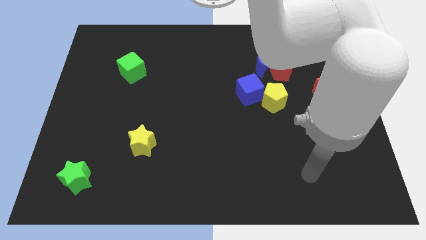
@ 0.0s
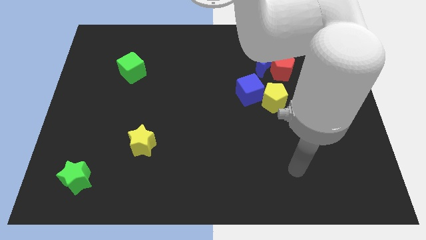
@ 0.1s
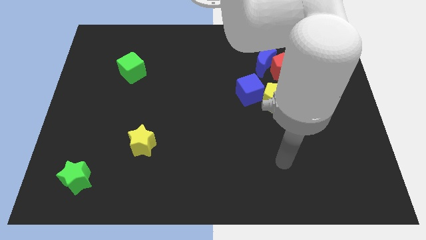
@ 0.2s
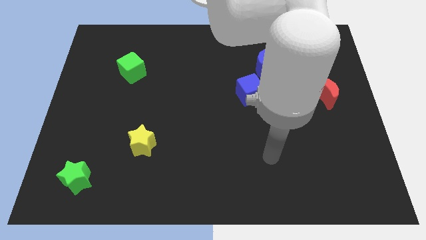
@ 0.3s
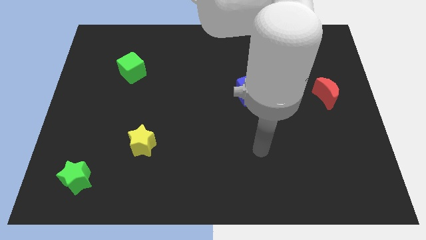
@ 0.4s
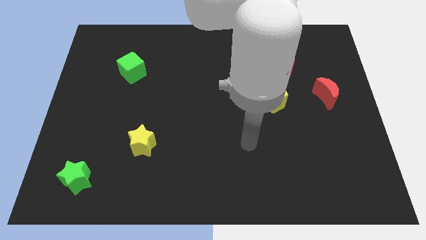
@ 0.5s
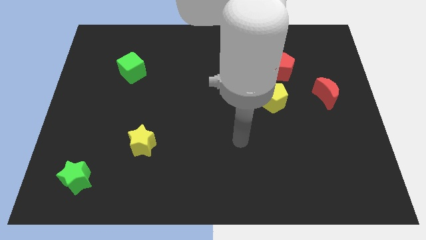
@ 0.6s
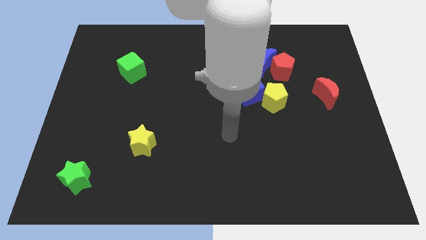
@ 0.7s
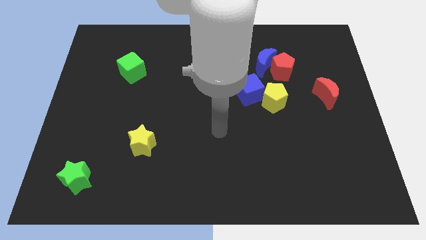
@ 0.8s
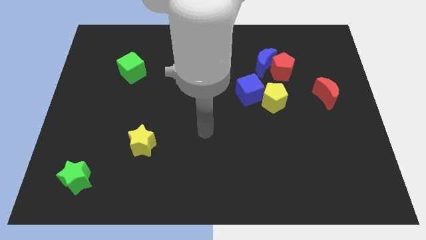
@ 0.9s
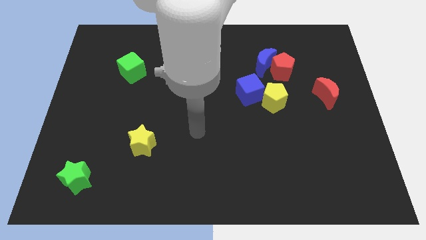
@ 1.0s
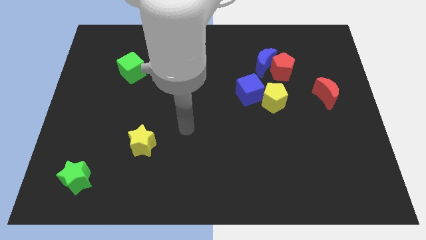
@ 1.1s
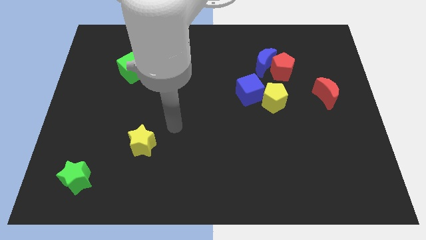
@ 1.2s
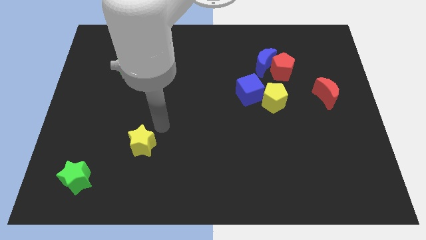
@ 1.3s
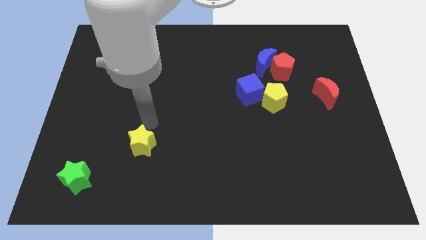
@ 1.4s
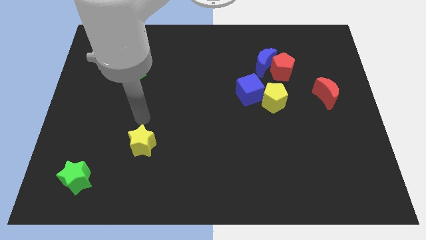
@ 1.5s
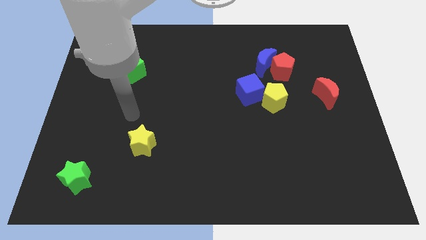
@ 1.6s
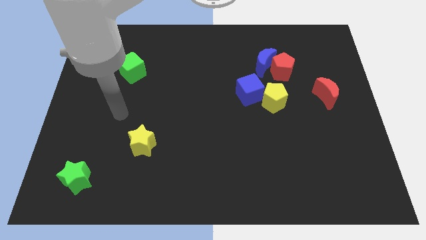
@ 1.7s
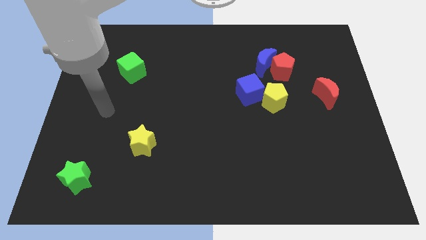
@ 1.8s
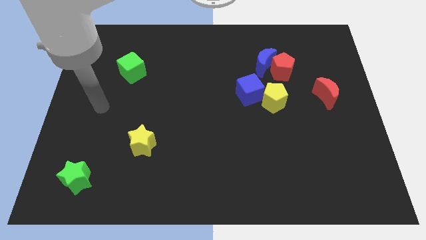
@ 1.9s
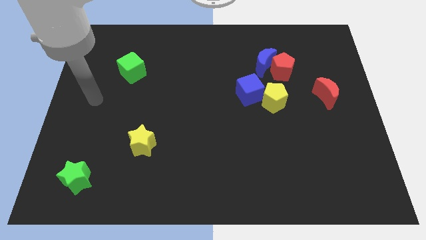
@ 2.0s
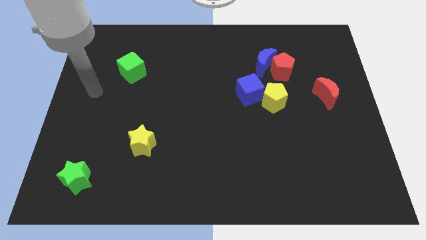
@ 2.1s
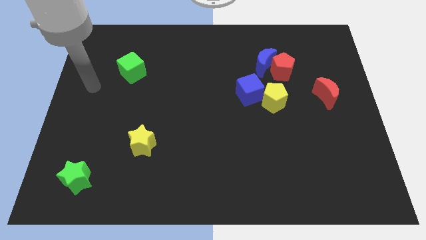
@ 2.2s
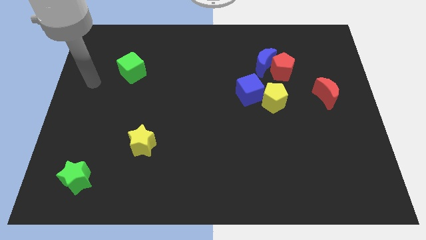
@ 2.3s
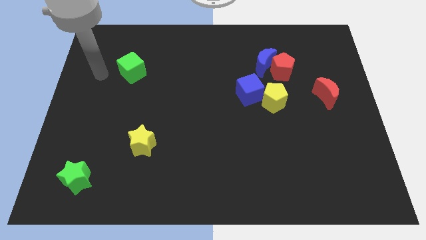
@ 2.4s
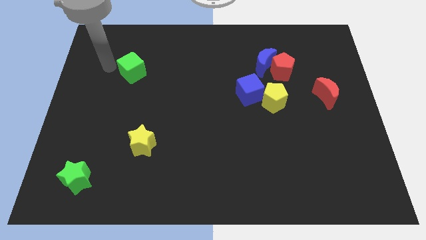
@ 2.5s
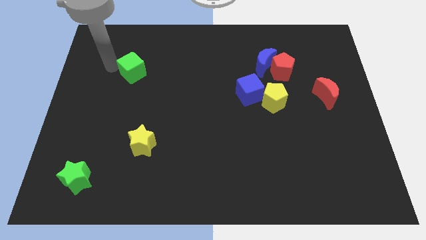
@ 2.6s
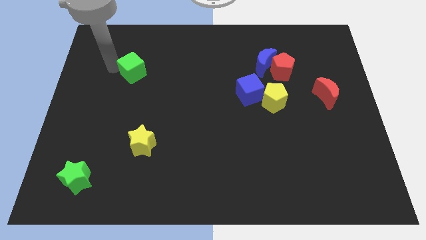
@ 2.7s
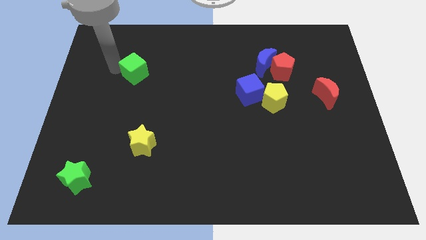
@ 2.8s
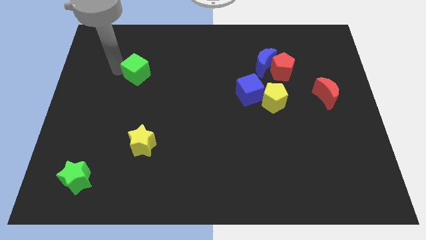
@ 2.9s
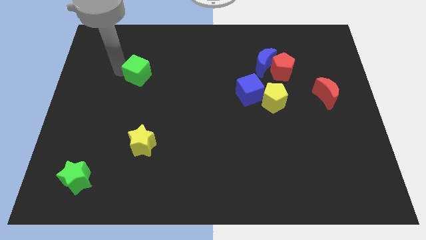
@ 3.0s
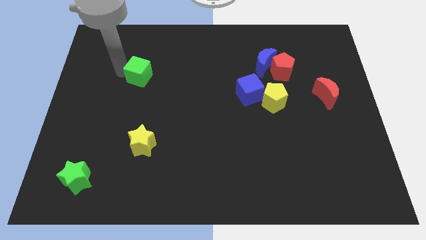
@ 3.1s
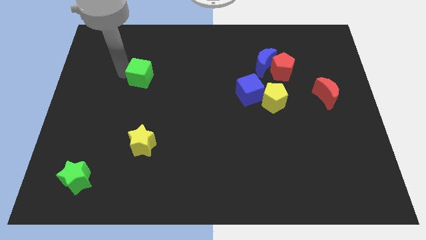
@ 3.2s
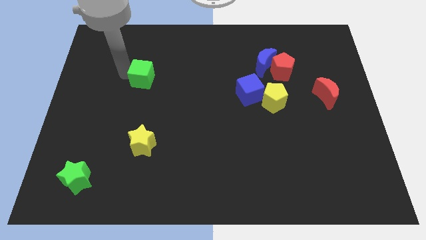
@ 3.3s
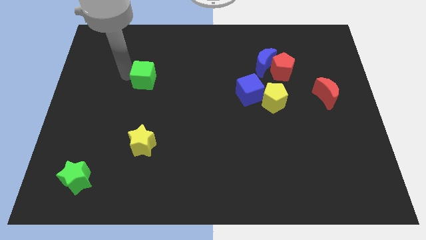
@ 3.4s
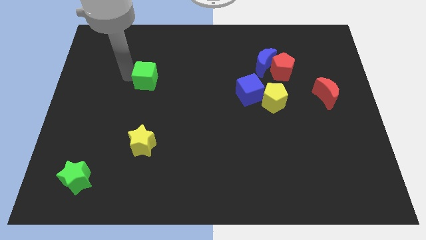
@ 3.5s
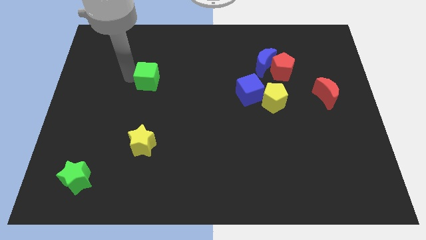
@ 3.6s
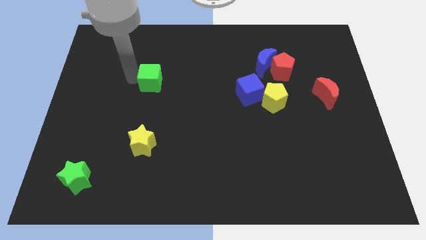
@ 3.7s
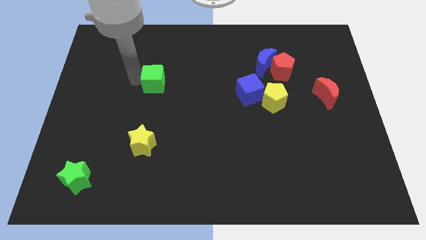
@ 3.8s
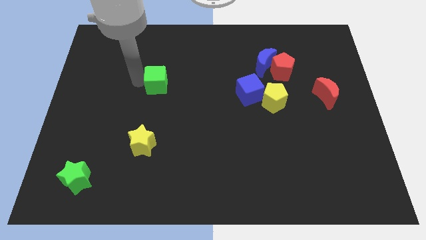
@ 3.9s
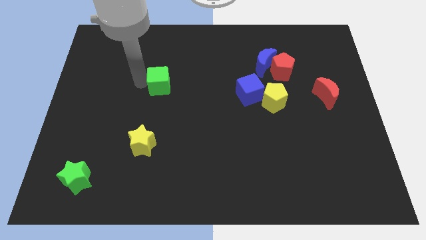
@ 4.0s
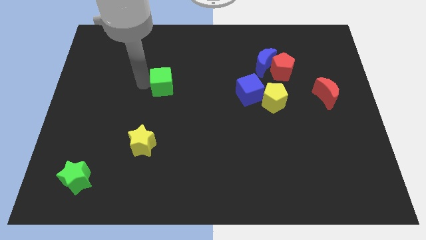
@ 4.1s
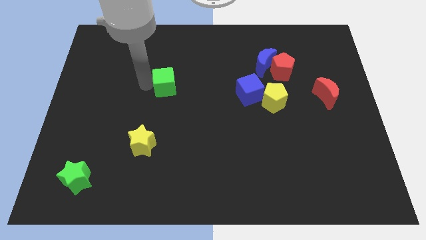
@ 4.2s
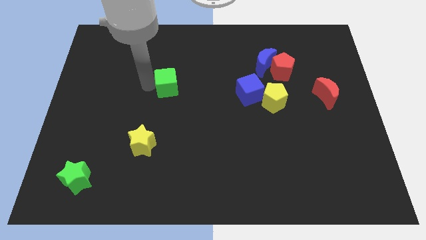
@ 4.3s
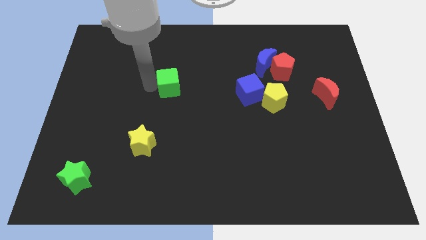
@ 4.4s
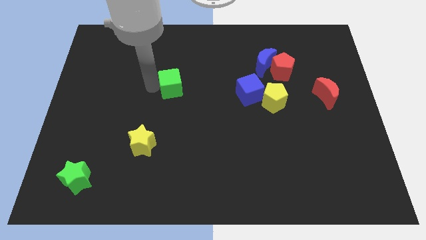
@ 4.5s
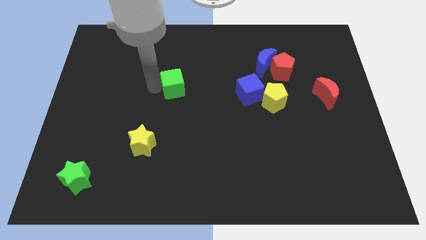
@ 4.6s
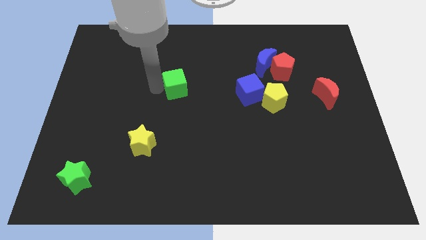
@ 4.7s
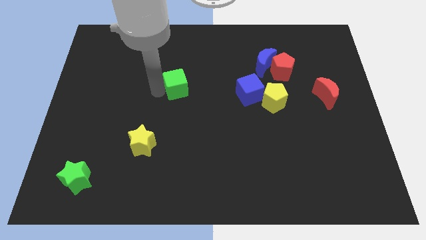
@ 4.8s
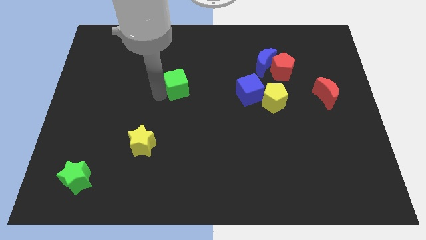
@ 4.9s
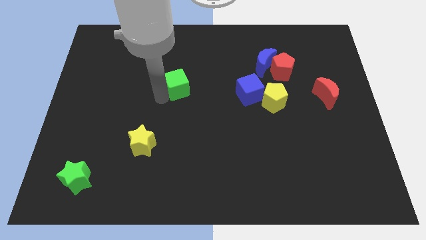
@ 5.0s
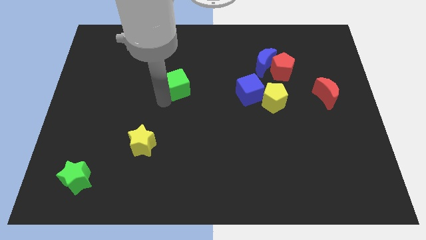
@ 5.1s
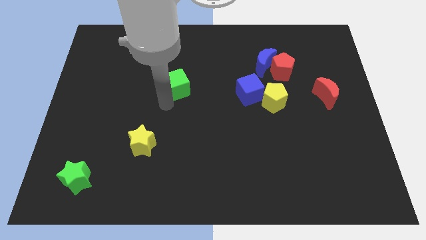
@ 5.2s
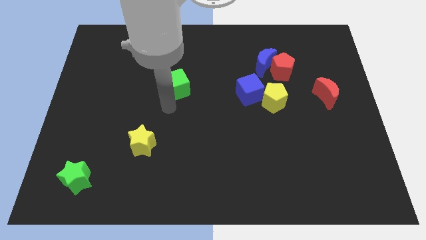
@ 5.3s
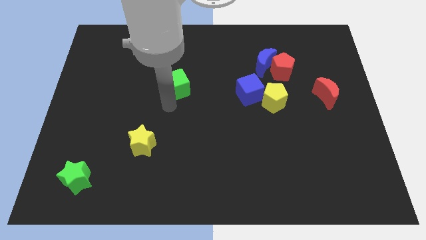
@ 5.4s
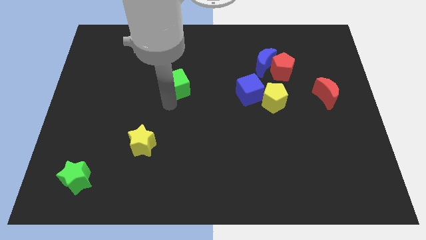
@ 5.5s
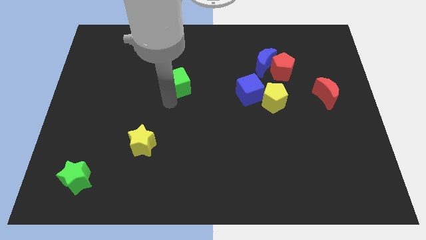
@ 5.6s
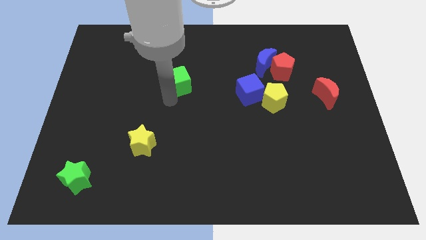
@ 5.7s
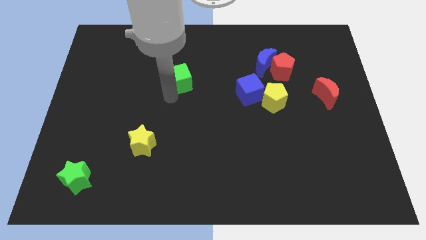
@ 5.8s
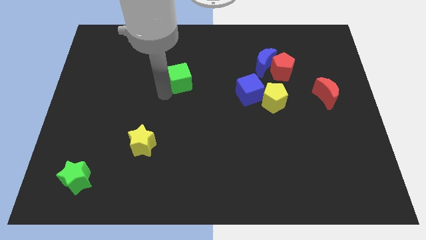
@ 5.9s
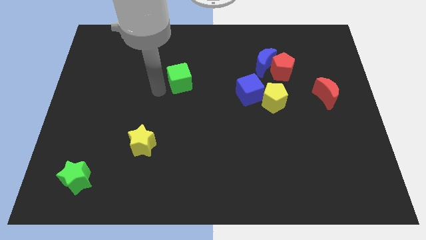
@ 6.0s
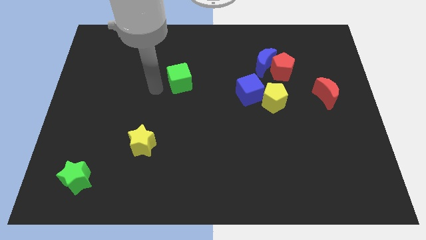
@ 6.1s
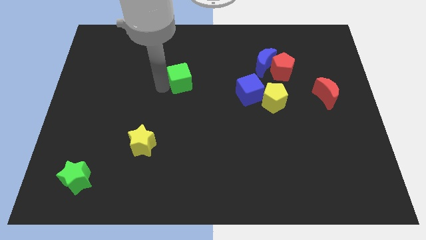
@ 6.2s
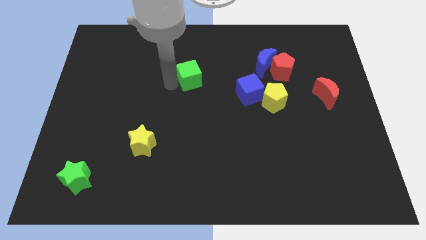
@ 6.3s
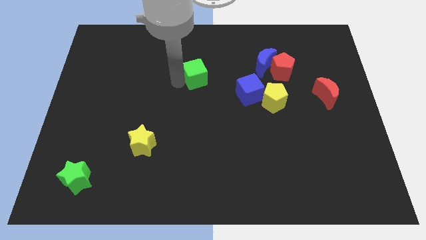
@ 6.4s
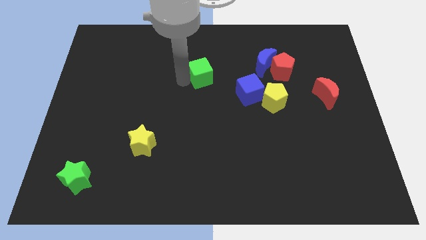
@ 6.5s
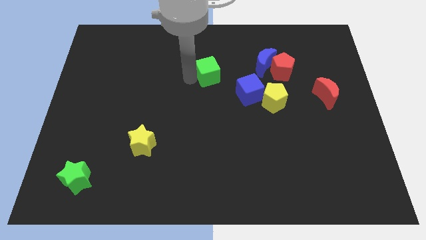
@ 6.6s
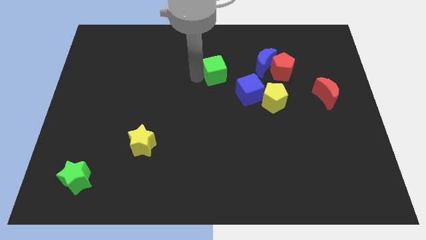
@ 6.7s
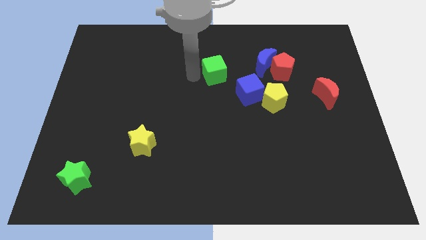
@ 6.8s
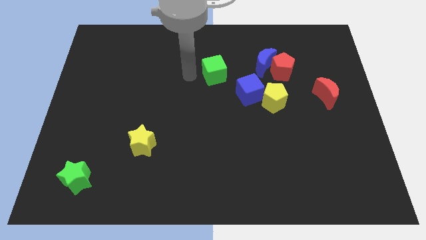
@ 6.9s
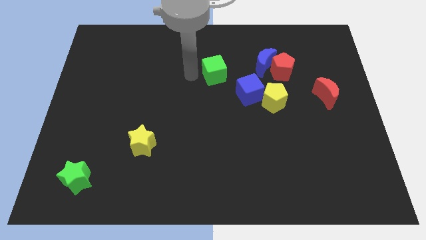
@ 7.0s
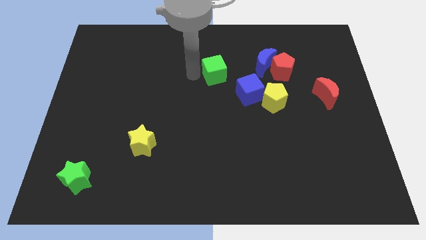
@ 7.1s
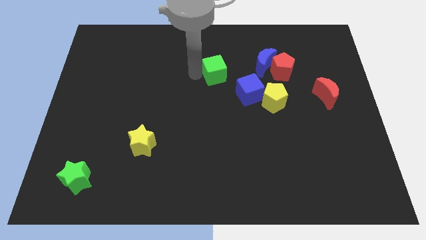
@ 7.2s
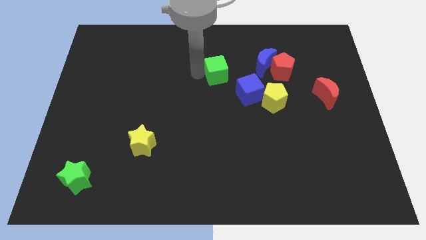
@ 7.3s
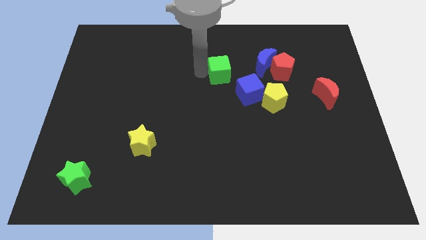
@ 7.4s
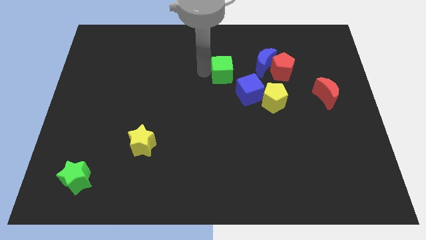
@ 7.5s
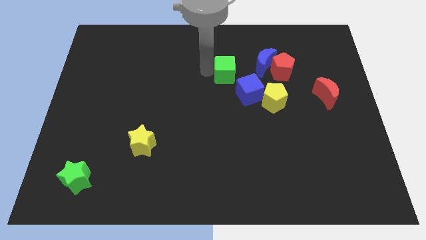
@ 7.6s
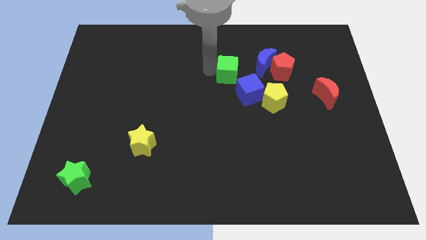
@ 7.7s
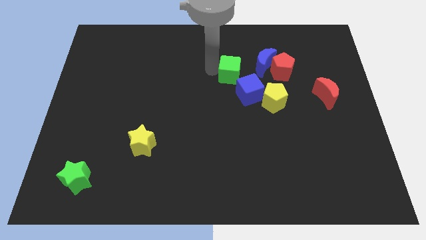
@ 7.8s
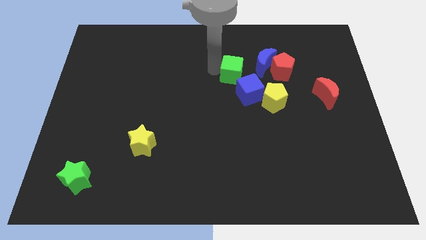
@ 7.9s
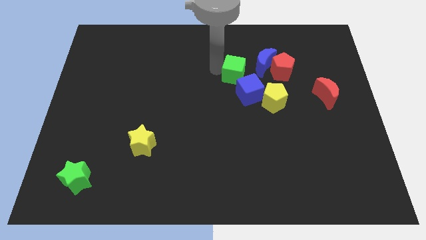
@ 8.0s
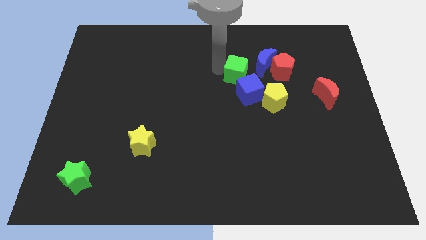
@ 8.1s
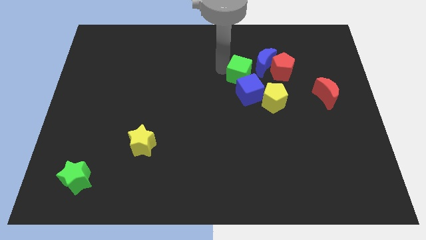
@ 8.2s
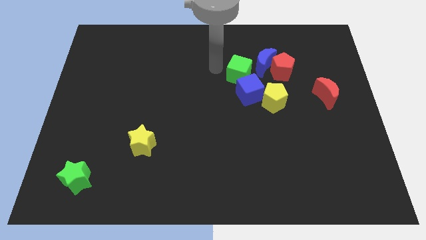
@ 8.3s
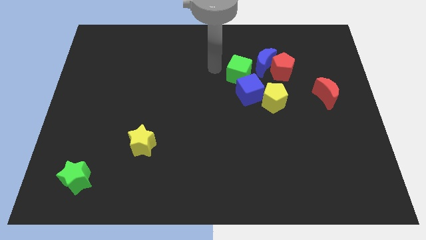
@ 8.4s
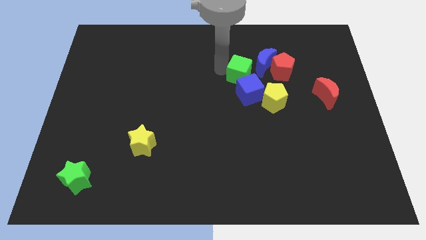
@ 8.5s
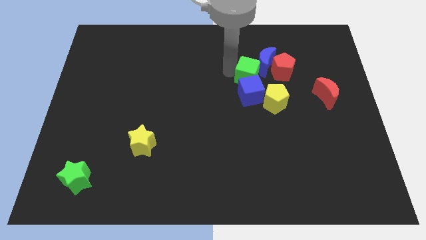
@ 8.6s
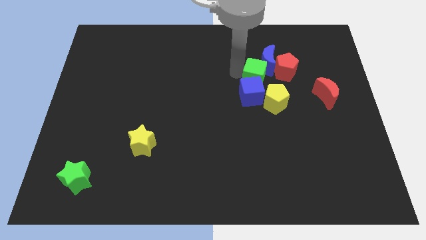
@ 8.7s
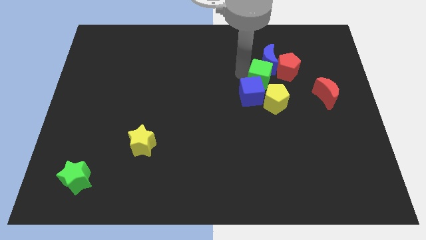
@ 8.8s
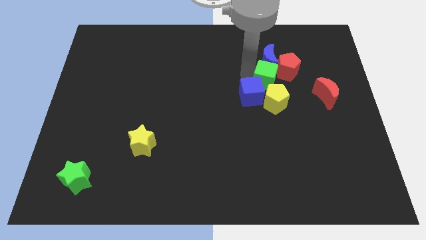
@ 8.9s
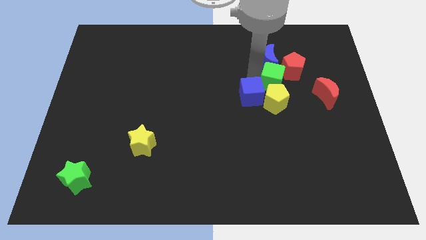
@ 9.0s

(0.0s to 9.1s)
push the green cube to the top right side of the yellow pentagon
